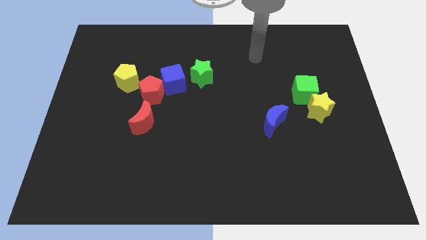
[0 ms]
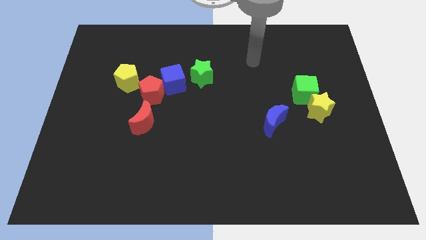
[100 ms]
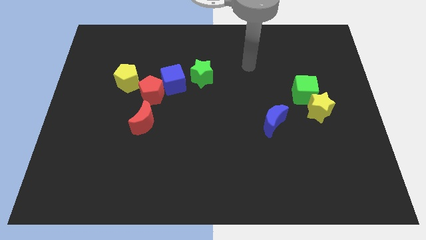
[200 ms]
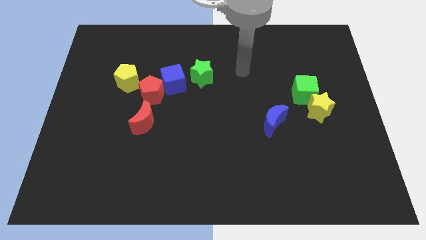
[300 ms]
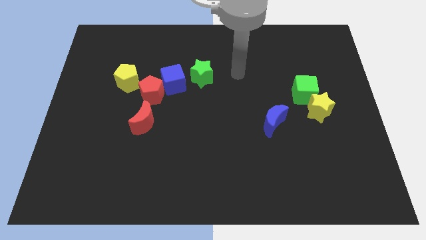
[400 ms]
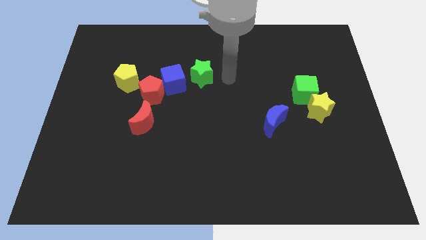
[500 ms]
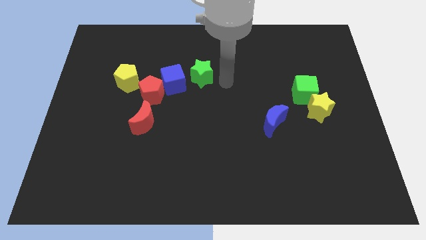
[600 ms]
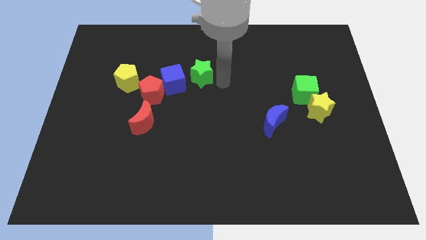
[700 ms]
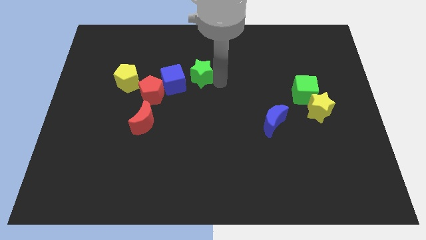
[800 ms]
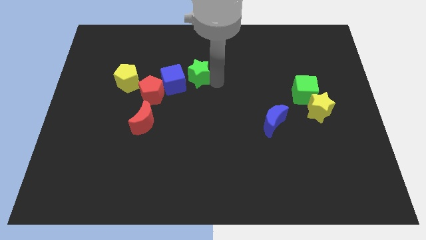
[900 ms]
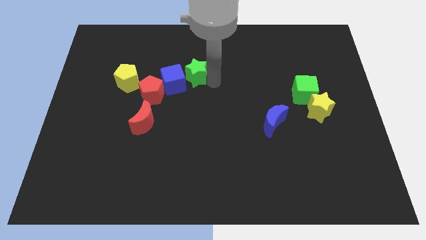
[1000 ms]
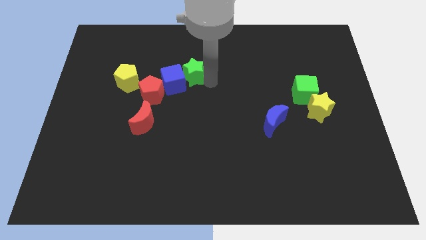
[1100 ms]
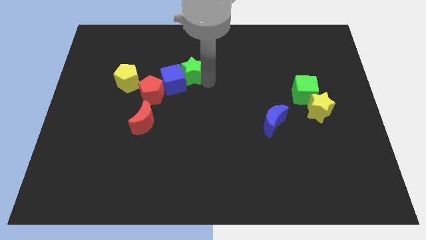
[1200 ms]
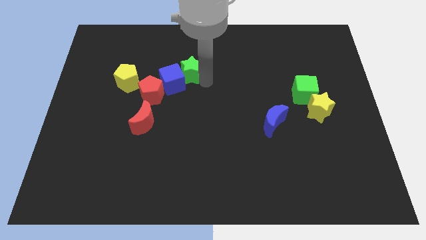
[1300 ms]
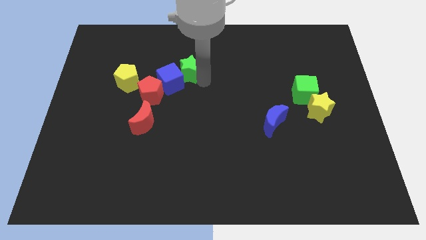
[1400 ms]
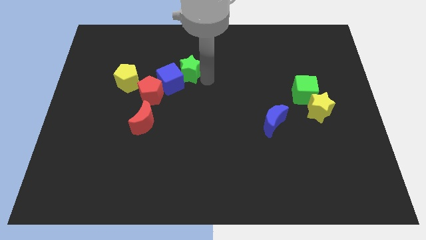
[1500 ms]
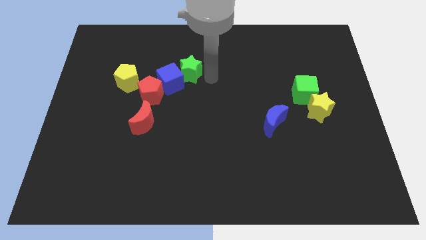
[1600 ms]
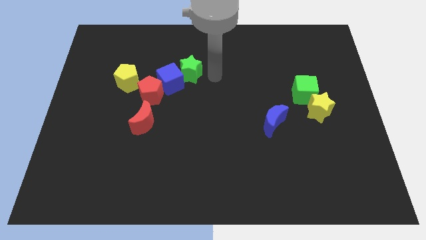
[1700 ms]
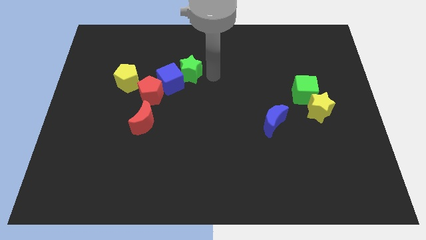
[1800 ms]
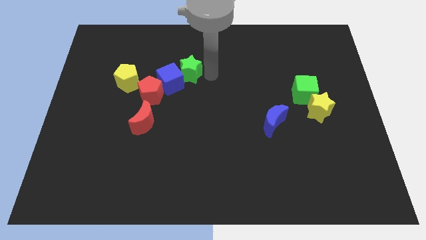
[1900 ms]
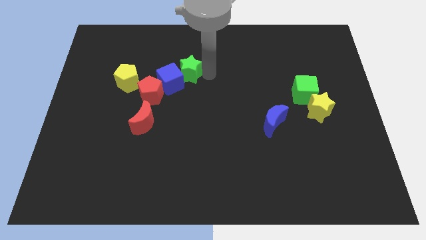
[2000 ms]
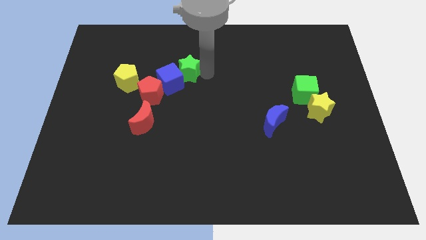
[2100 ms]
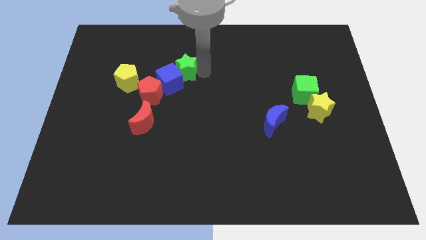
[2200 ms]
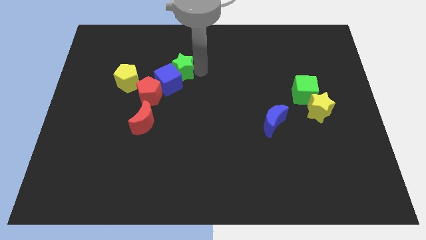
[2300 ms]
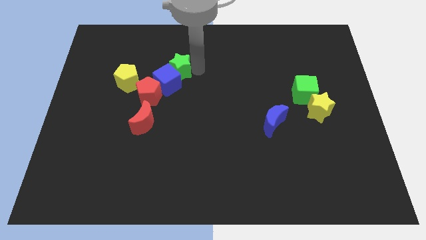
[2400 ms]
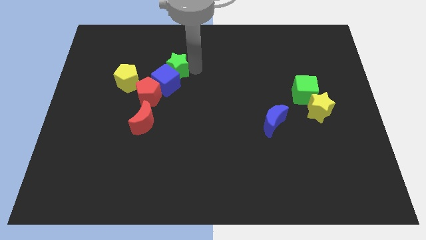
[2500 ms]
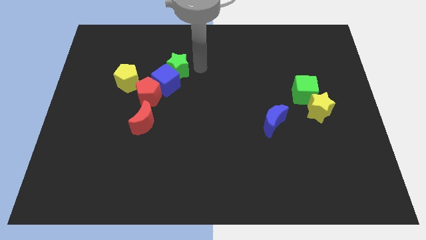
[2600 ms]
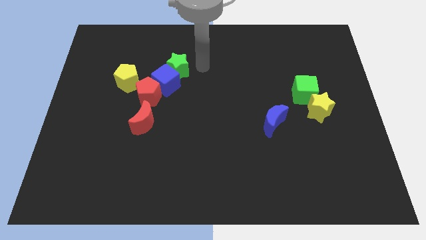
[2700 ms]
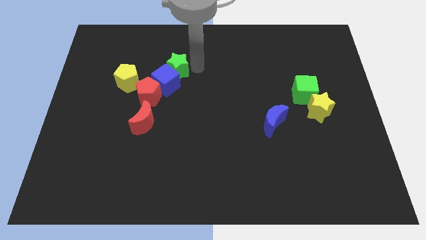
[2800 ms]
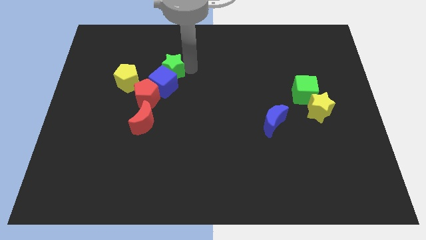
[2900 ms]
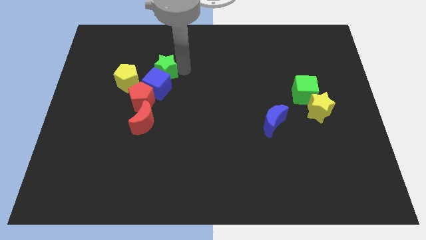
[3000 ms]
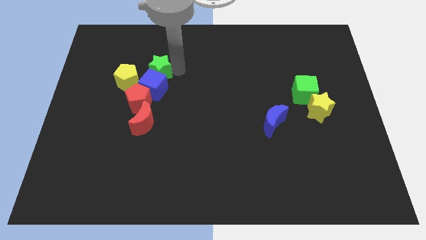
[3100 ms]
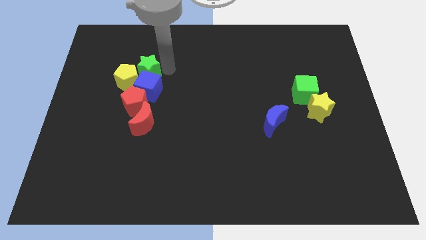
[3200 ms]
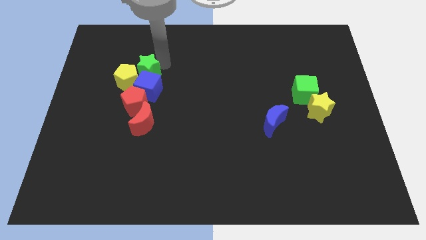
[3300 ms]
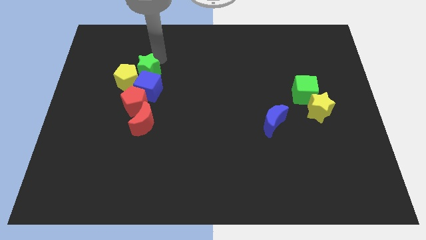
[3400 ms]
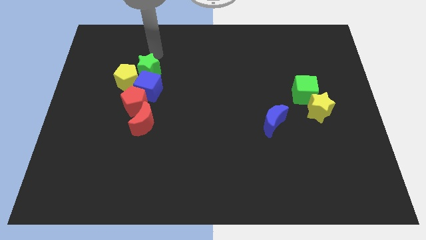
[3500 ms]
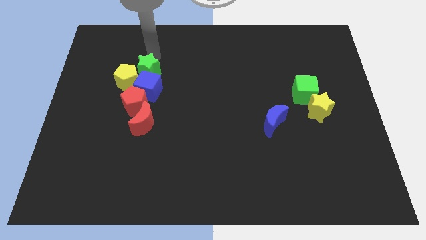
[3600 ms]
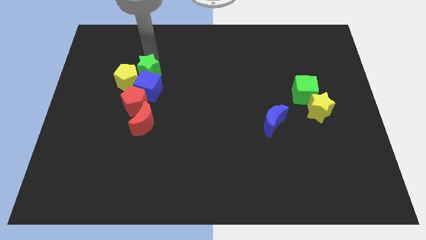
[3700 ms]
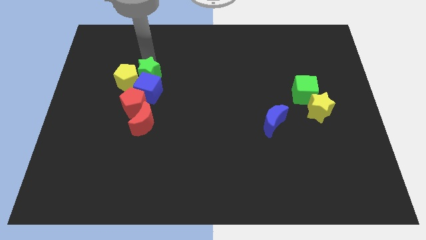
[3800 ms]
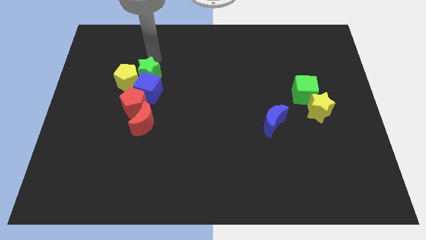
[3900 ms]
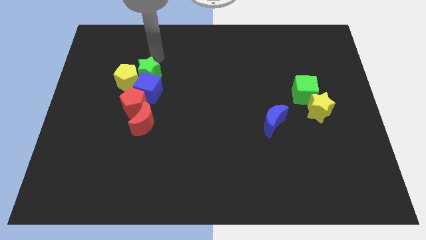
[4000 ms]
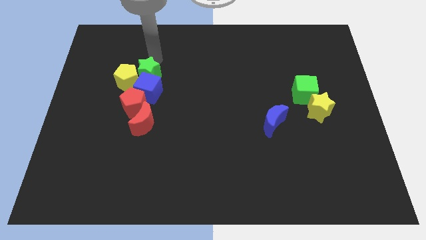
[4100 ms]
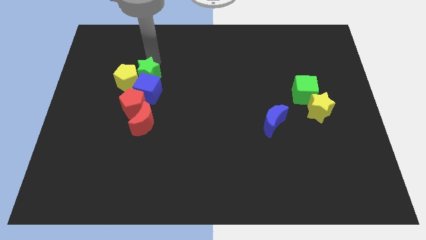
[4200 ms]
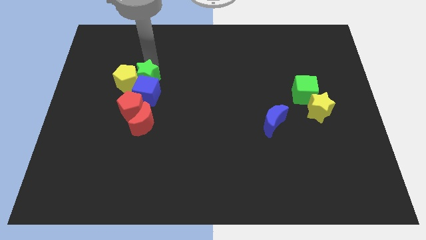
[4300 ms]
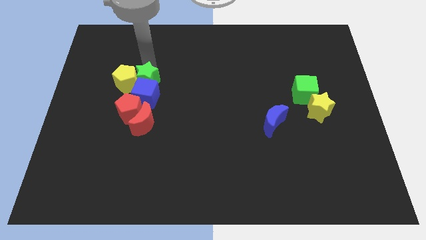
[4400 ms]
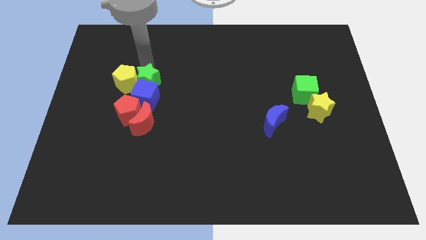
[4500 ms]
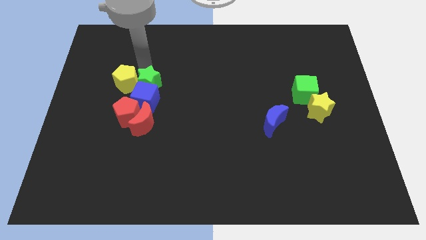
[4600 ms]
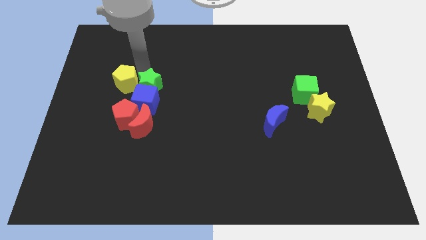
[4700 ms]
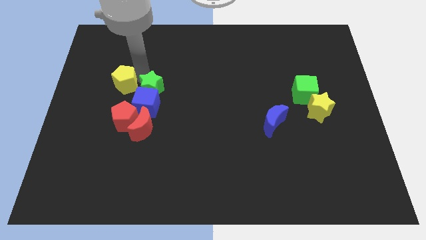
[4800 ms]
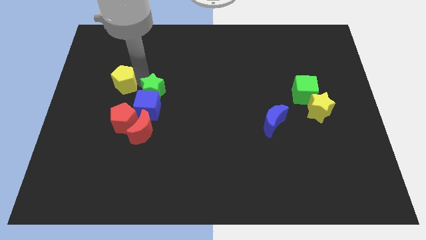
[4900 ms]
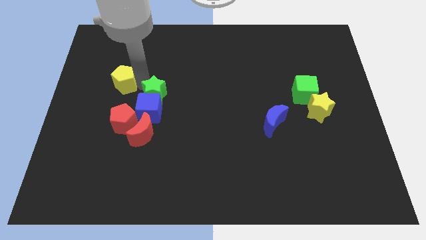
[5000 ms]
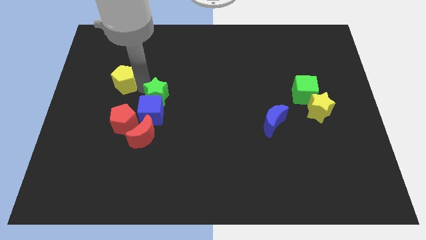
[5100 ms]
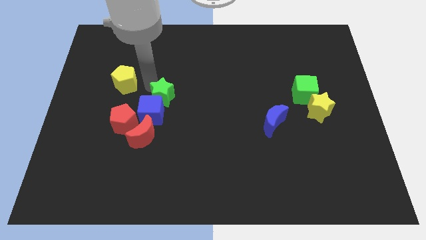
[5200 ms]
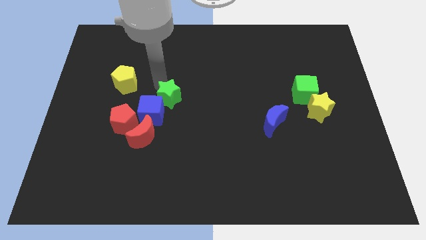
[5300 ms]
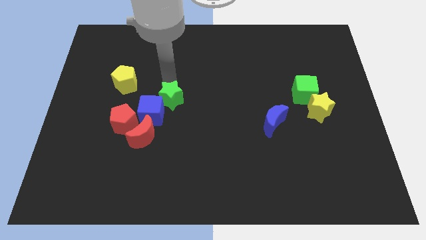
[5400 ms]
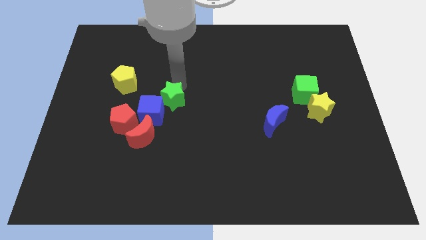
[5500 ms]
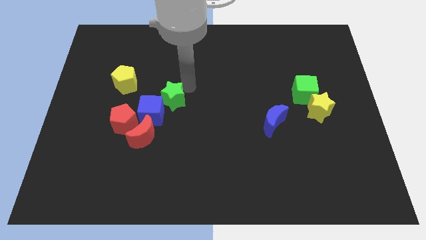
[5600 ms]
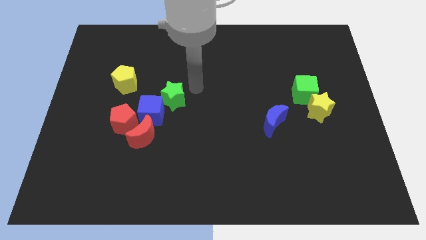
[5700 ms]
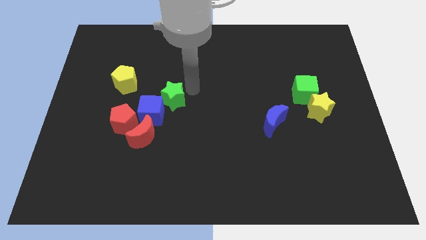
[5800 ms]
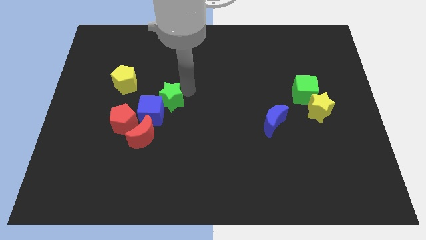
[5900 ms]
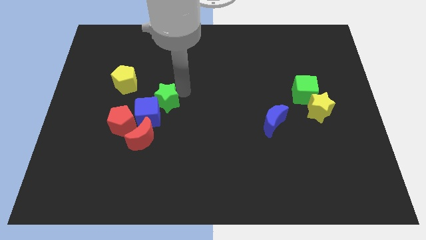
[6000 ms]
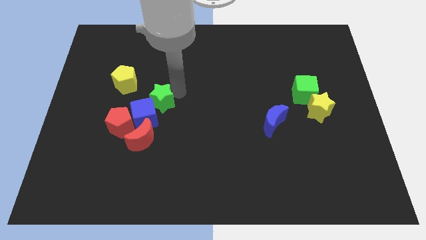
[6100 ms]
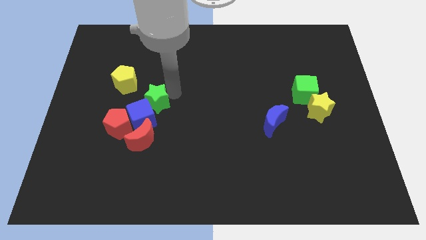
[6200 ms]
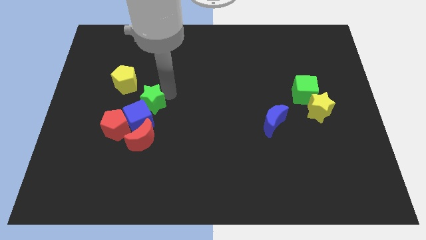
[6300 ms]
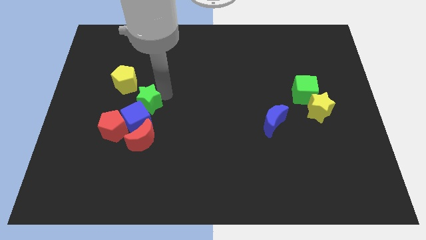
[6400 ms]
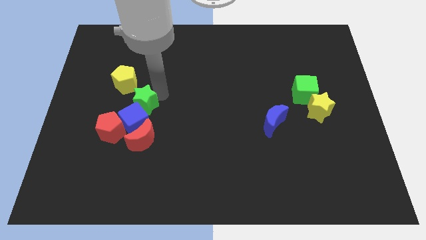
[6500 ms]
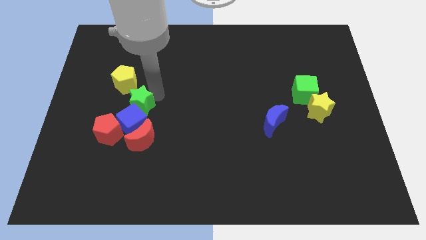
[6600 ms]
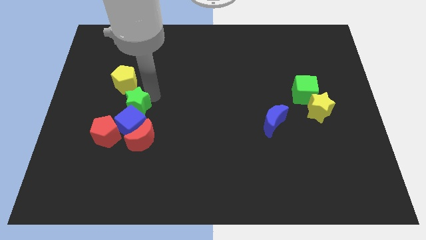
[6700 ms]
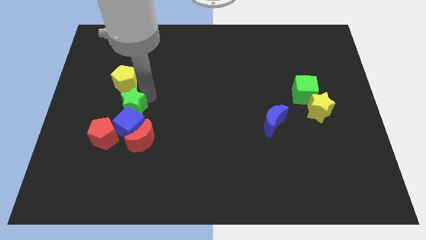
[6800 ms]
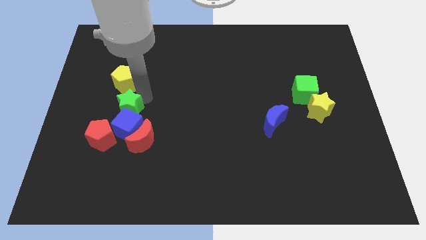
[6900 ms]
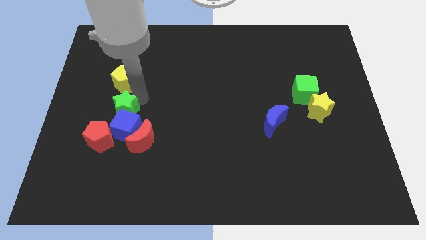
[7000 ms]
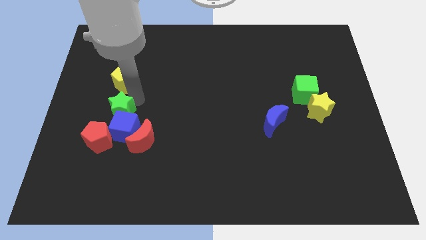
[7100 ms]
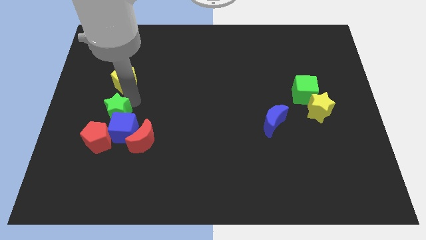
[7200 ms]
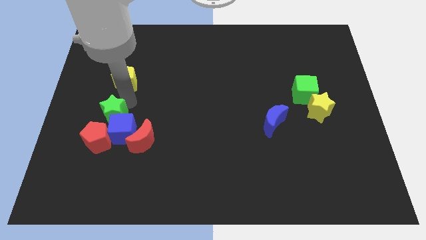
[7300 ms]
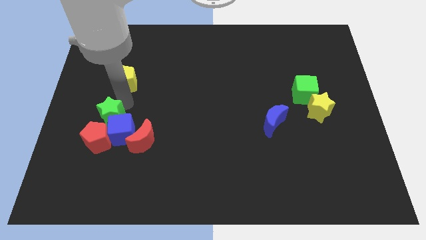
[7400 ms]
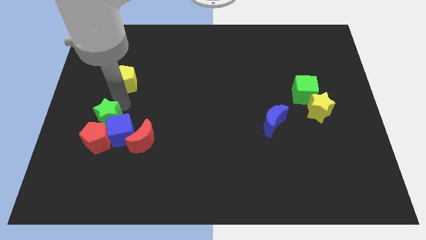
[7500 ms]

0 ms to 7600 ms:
push the green star close to the red pentagon
